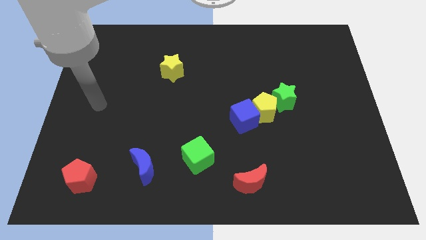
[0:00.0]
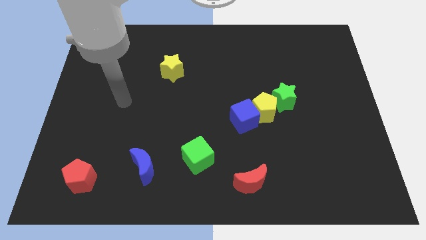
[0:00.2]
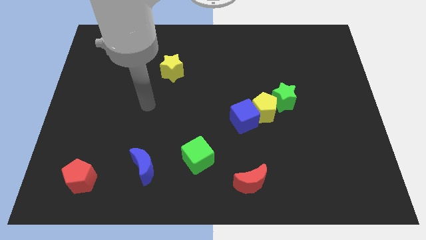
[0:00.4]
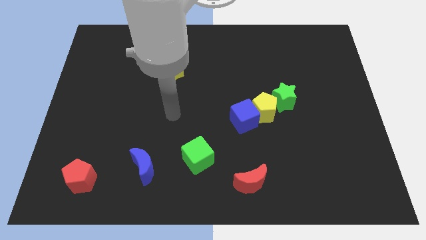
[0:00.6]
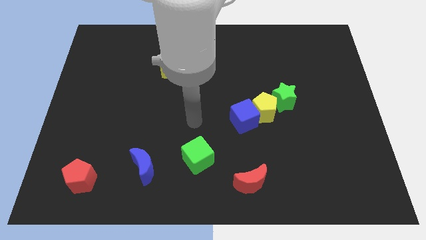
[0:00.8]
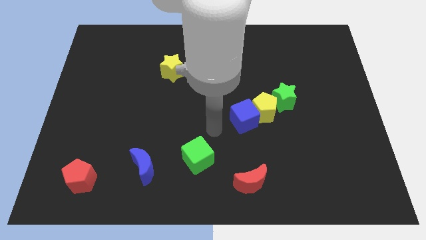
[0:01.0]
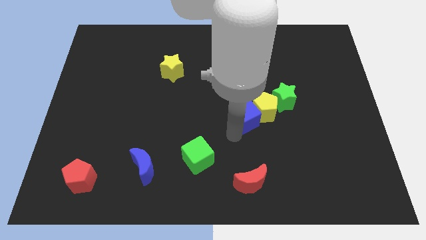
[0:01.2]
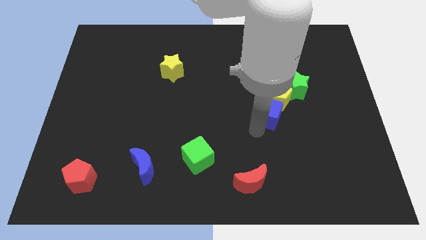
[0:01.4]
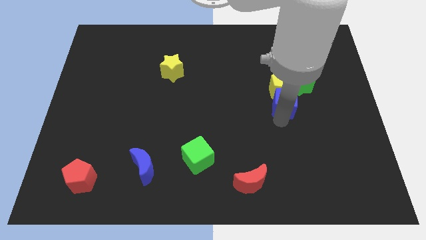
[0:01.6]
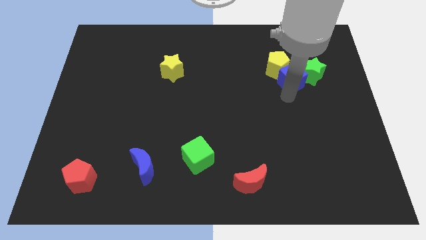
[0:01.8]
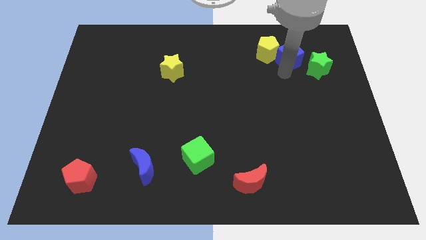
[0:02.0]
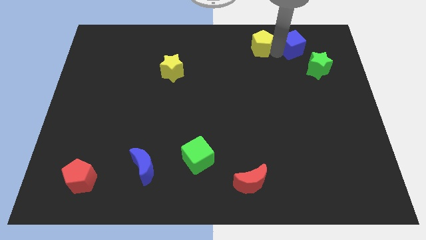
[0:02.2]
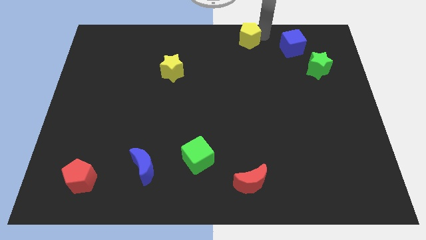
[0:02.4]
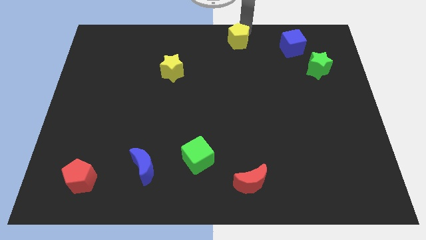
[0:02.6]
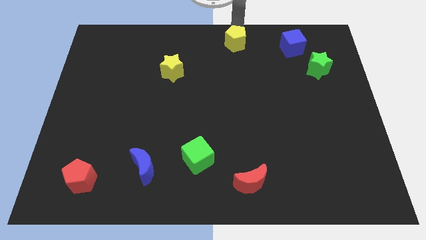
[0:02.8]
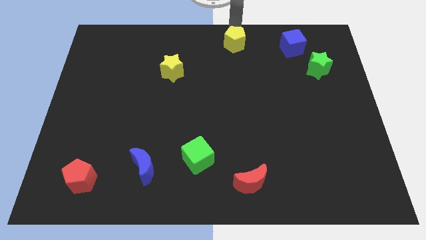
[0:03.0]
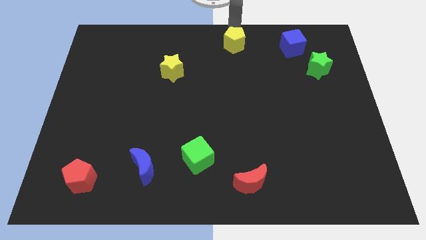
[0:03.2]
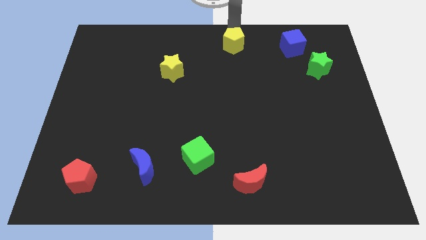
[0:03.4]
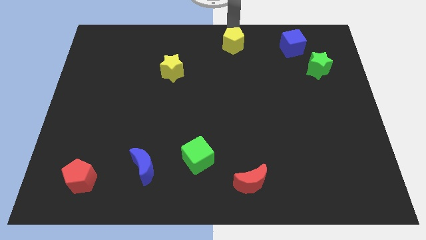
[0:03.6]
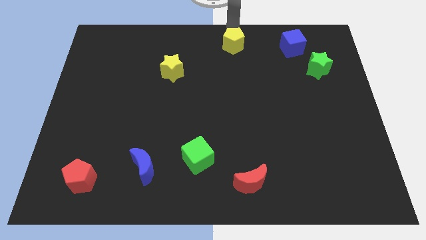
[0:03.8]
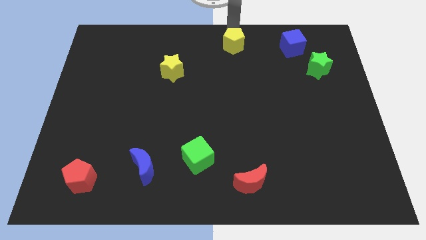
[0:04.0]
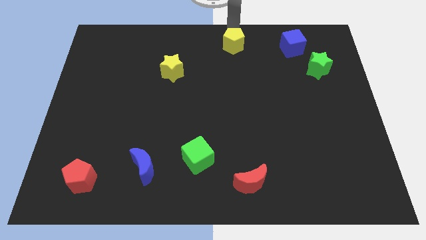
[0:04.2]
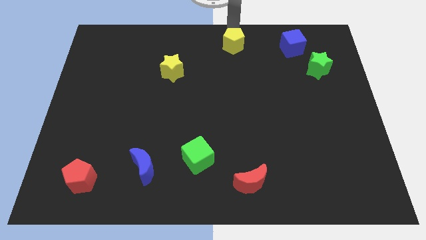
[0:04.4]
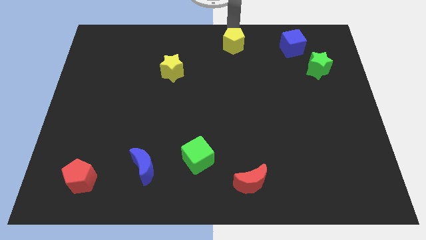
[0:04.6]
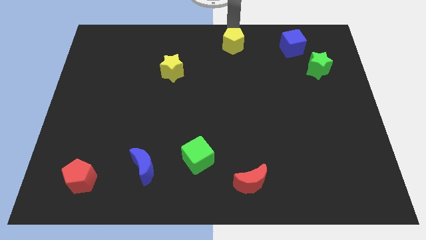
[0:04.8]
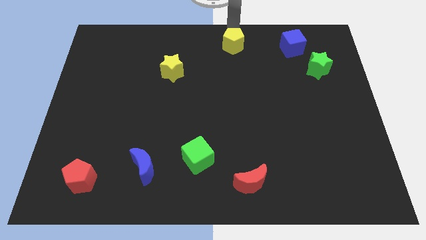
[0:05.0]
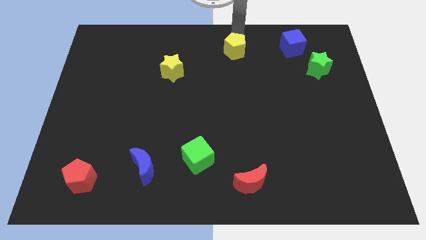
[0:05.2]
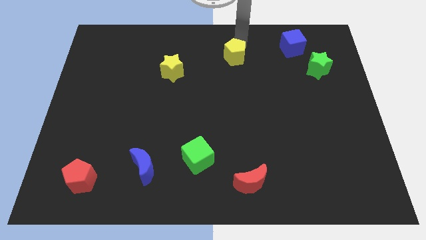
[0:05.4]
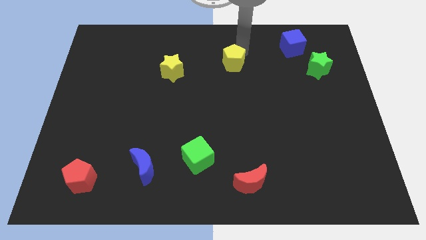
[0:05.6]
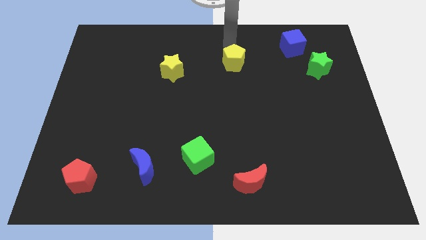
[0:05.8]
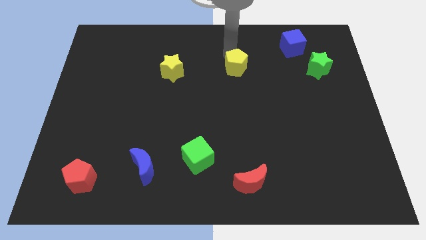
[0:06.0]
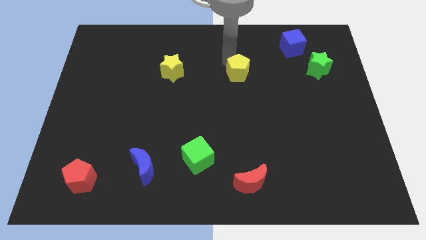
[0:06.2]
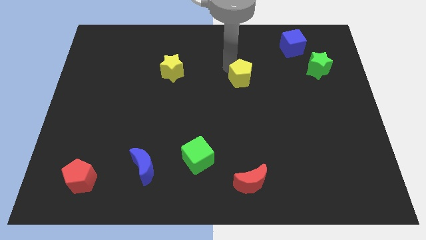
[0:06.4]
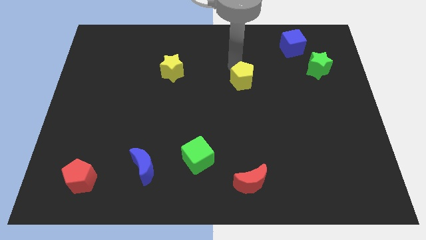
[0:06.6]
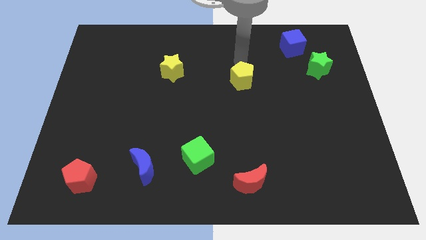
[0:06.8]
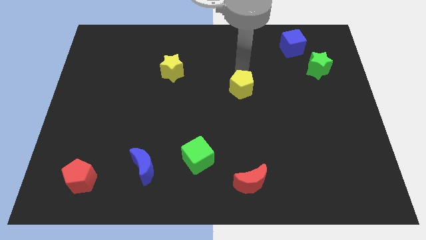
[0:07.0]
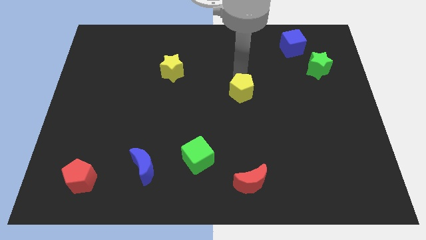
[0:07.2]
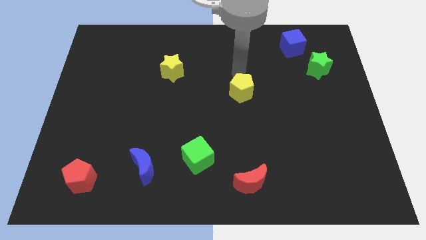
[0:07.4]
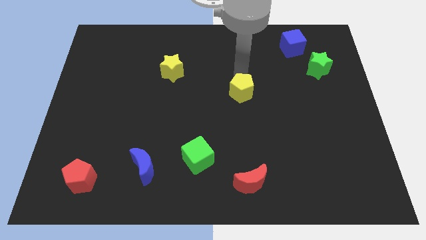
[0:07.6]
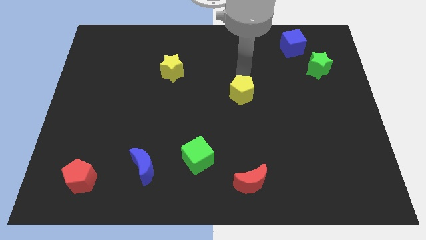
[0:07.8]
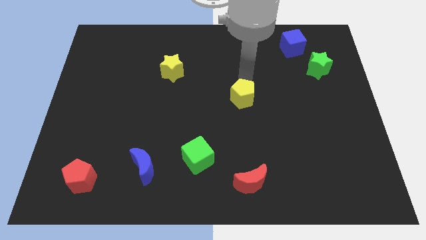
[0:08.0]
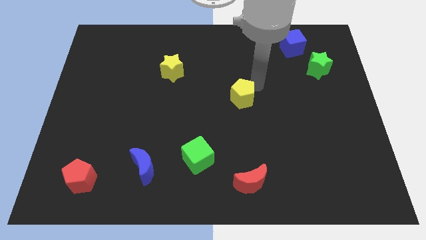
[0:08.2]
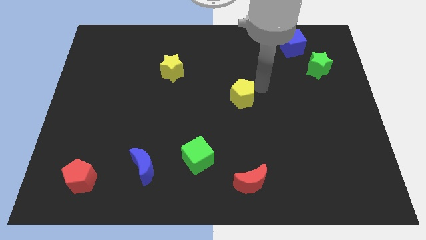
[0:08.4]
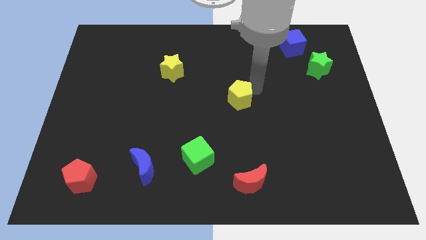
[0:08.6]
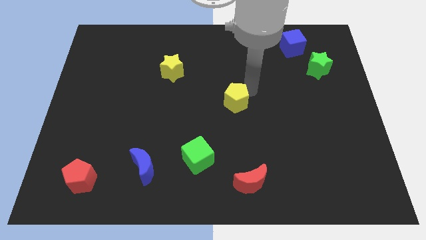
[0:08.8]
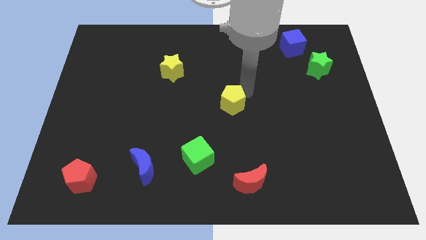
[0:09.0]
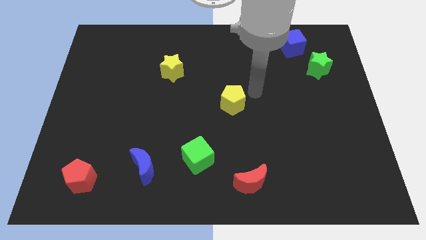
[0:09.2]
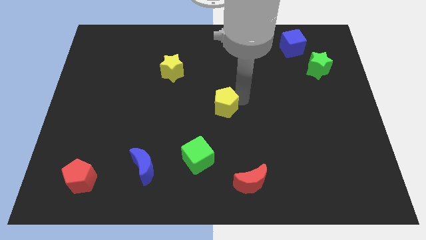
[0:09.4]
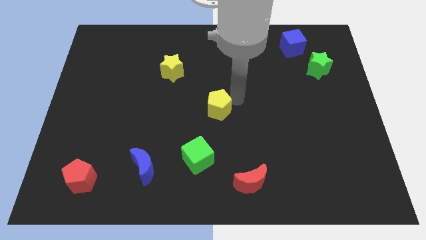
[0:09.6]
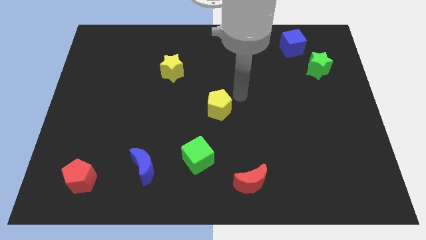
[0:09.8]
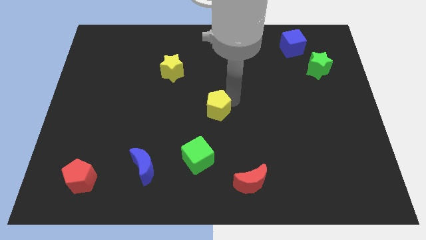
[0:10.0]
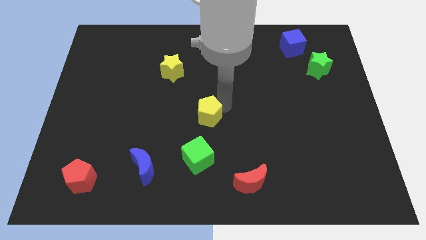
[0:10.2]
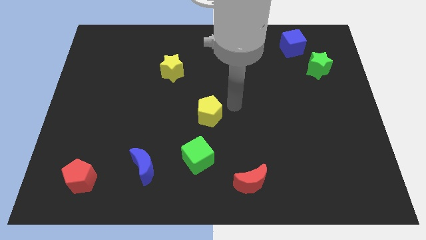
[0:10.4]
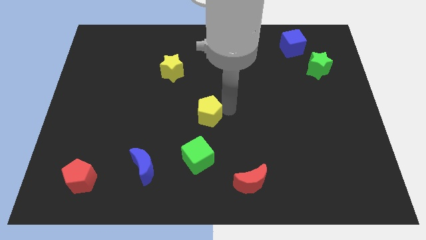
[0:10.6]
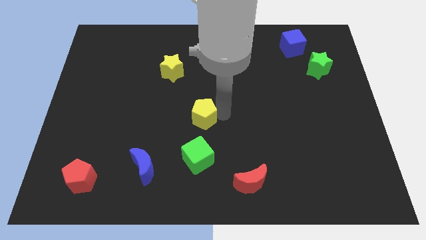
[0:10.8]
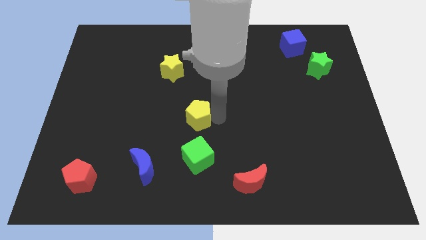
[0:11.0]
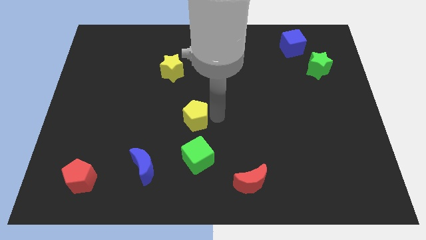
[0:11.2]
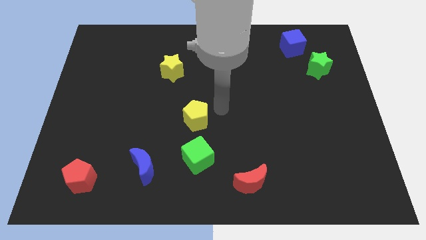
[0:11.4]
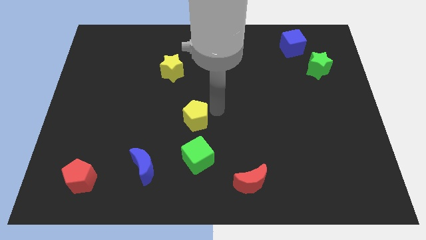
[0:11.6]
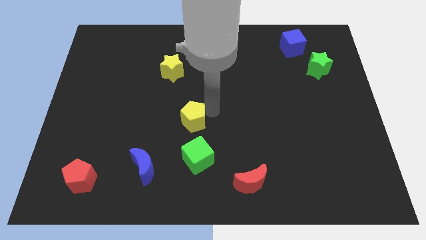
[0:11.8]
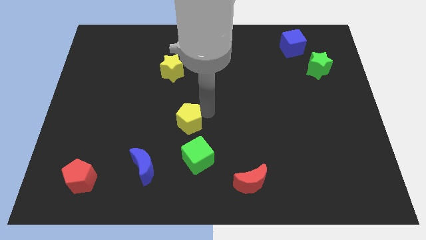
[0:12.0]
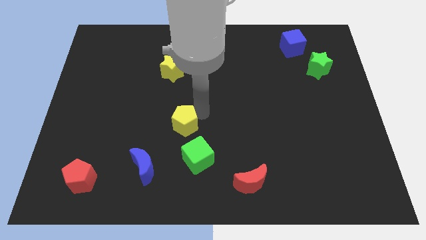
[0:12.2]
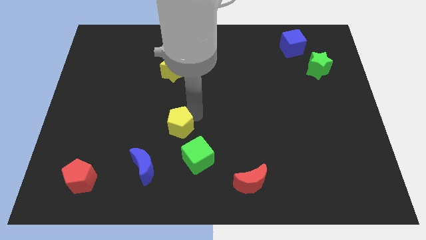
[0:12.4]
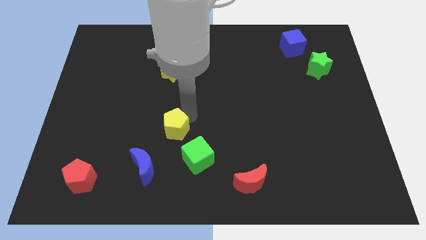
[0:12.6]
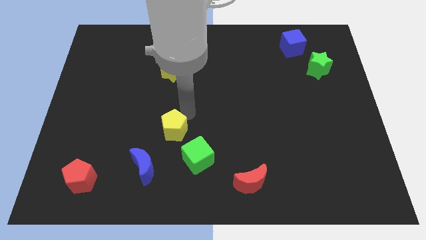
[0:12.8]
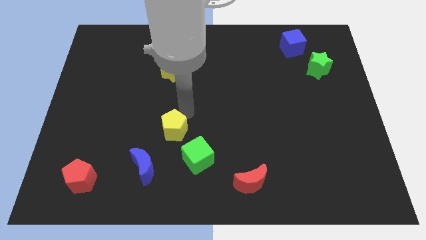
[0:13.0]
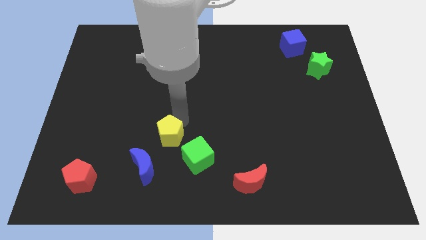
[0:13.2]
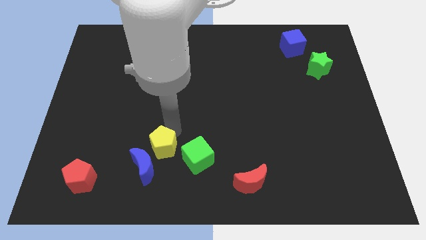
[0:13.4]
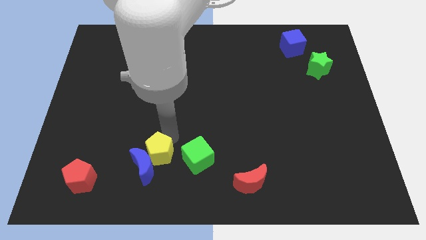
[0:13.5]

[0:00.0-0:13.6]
put the yellow pentagon to the blue moon

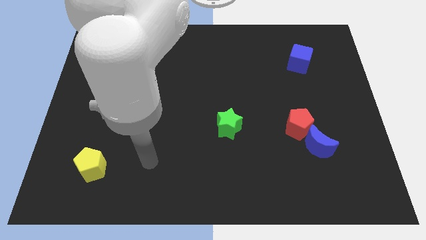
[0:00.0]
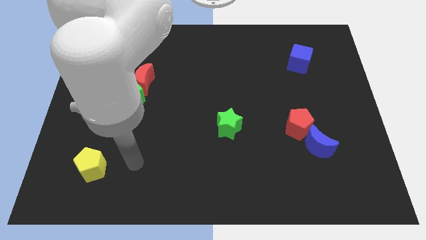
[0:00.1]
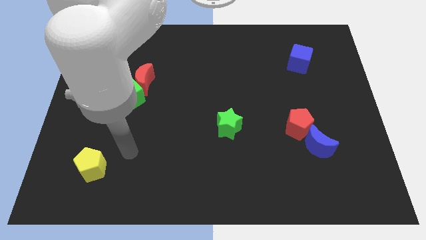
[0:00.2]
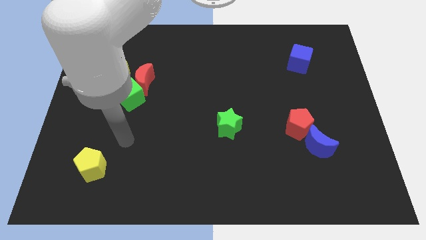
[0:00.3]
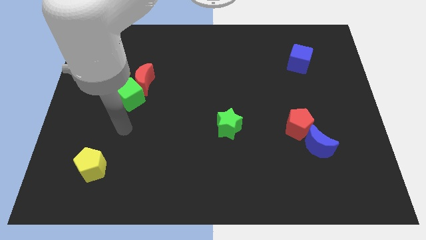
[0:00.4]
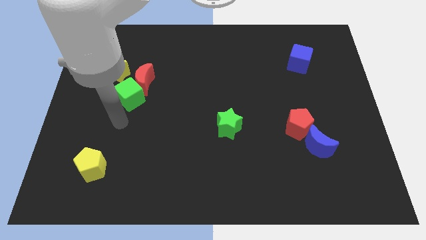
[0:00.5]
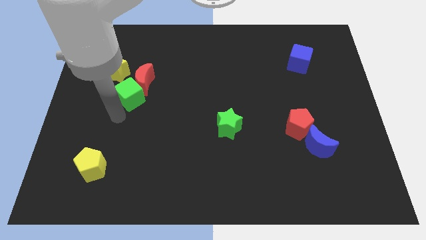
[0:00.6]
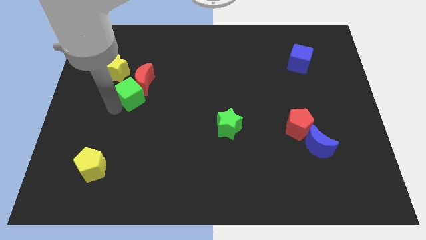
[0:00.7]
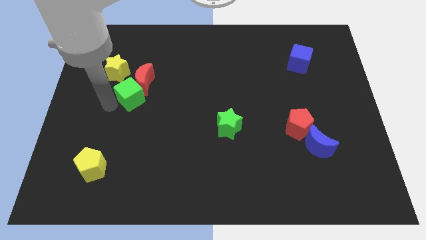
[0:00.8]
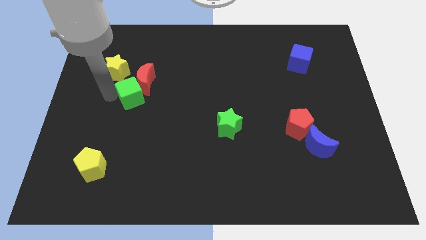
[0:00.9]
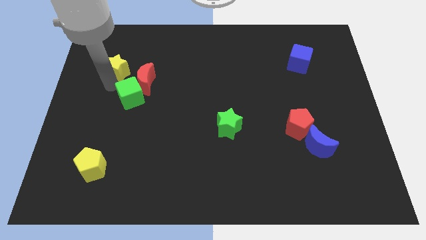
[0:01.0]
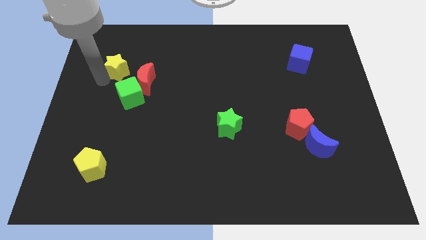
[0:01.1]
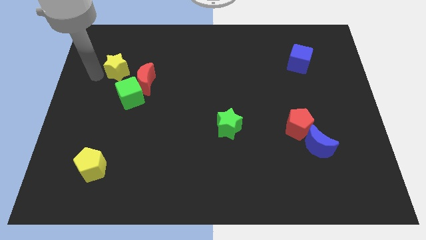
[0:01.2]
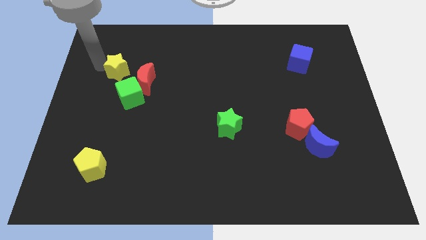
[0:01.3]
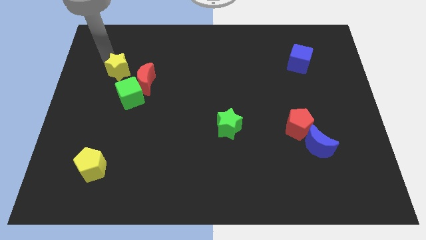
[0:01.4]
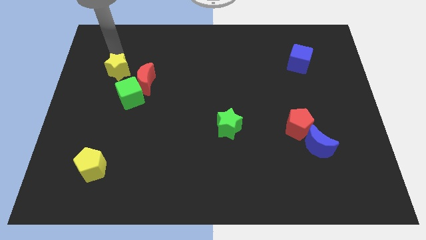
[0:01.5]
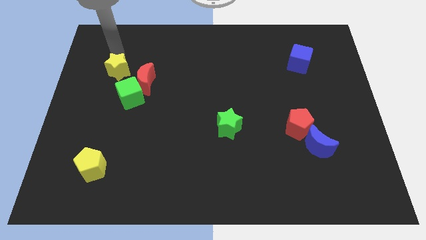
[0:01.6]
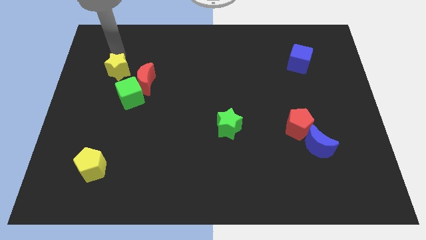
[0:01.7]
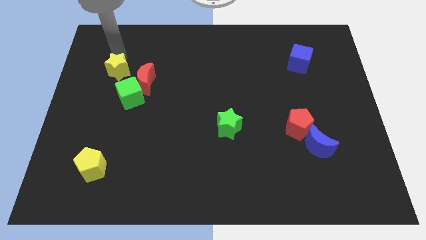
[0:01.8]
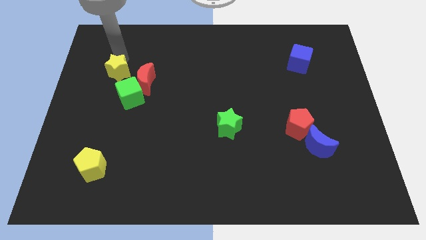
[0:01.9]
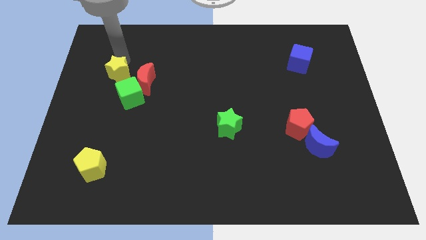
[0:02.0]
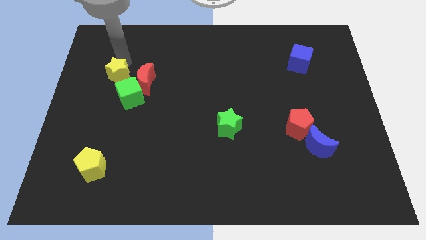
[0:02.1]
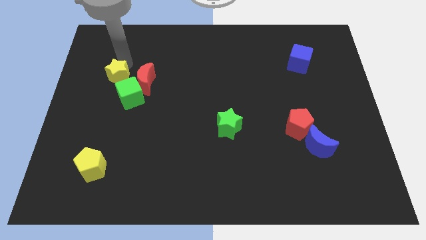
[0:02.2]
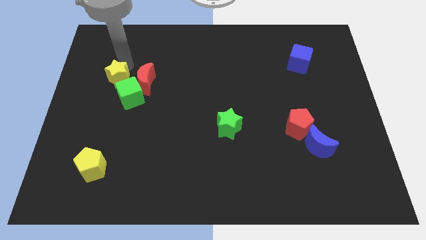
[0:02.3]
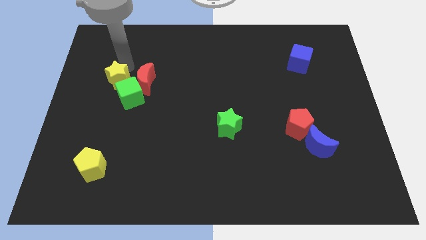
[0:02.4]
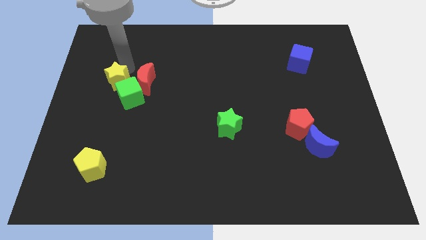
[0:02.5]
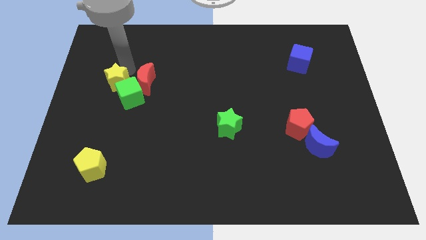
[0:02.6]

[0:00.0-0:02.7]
slide the yellow star next to the green cube
